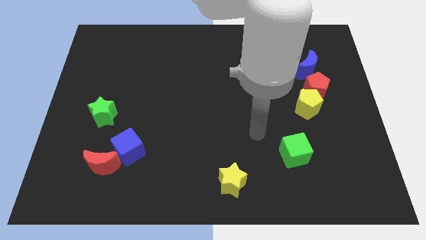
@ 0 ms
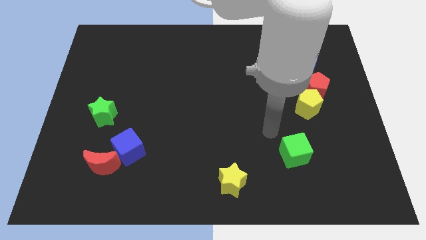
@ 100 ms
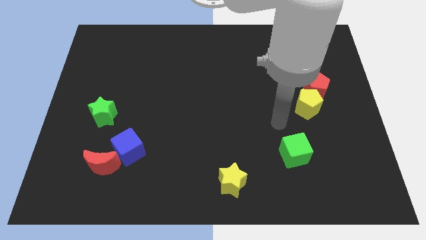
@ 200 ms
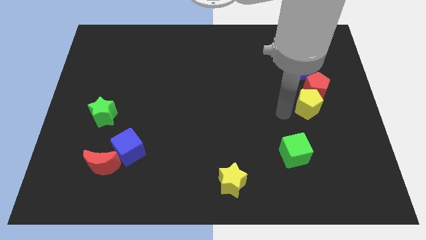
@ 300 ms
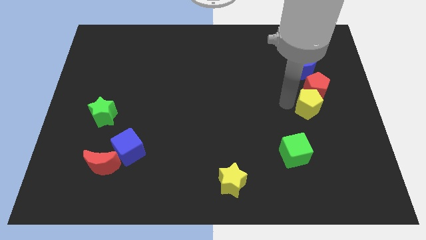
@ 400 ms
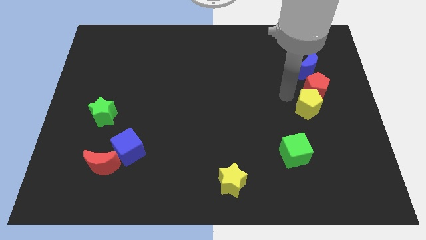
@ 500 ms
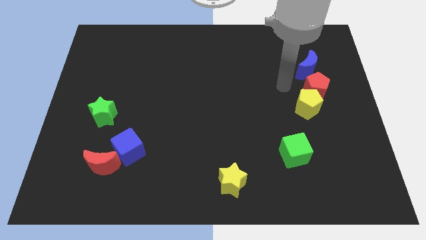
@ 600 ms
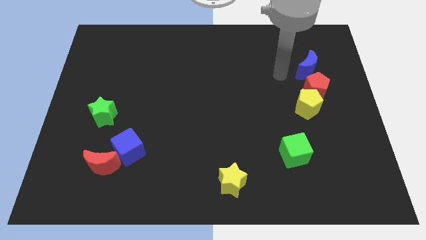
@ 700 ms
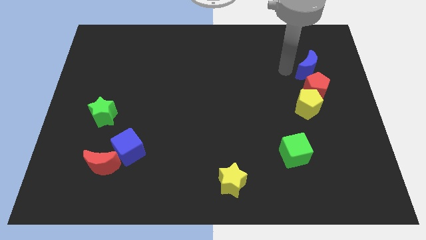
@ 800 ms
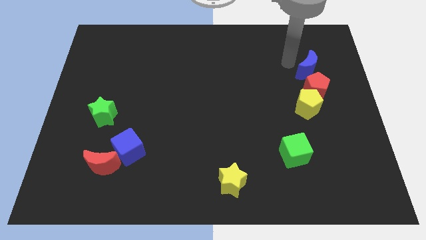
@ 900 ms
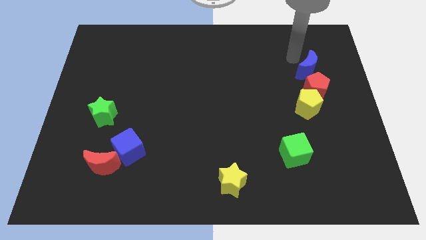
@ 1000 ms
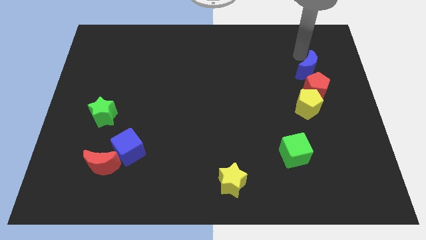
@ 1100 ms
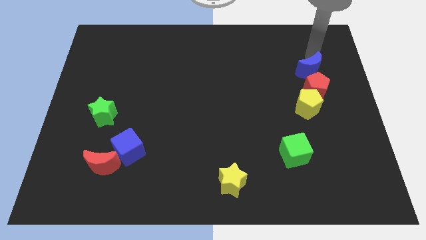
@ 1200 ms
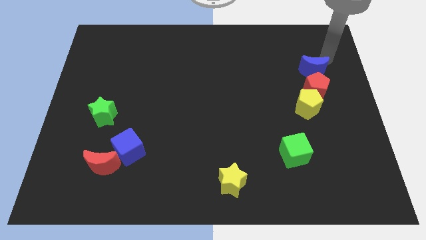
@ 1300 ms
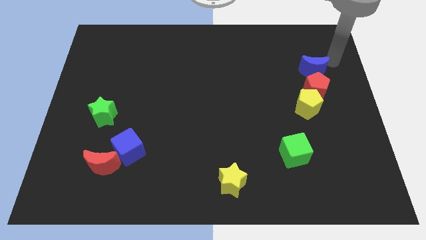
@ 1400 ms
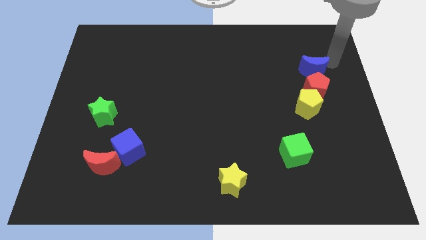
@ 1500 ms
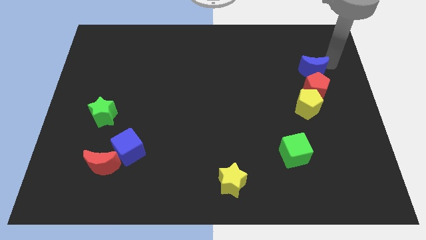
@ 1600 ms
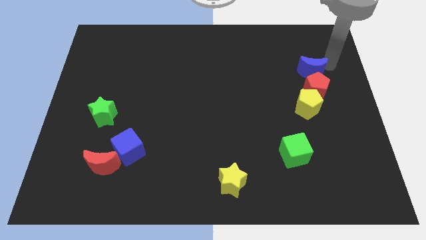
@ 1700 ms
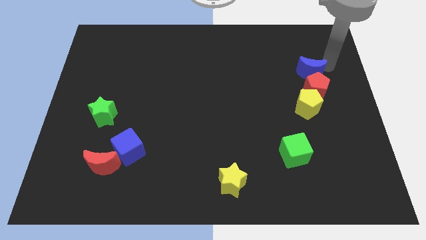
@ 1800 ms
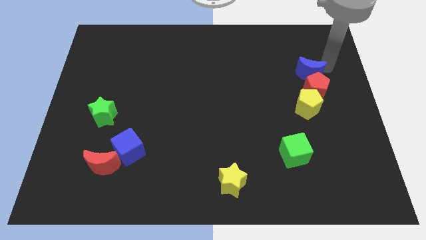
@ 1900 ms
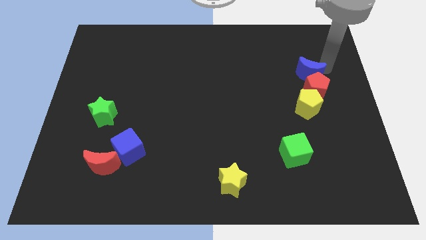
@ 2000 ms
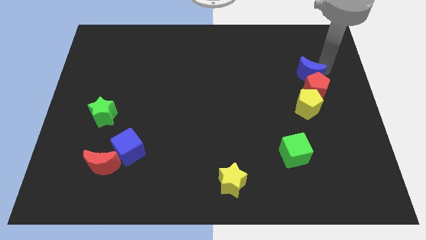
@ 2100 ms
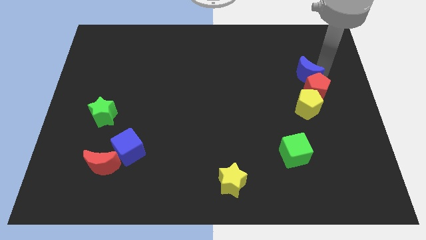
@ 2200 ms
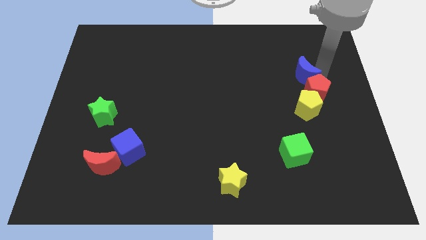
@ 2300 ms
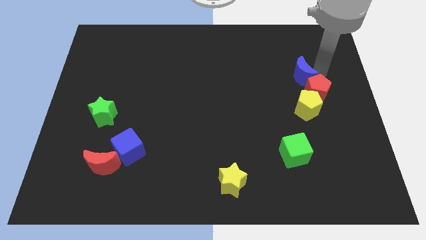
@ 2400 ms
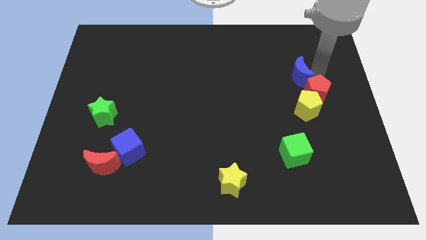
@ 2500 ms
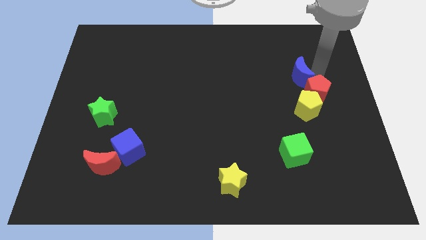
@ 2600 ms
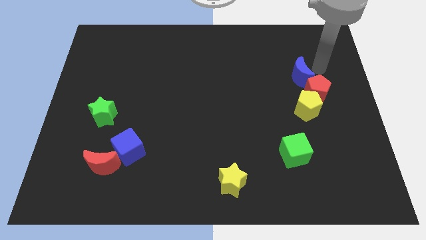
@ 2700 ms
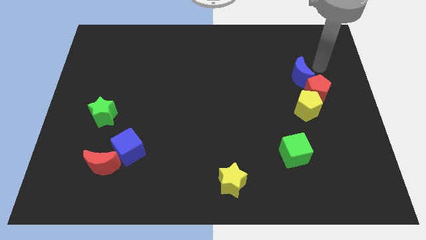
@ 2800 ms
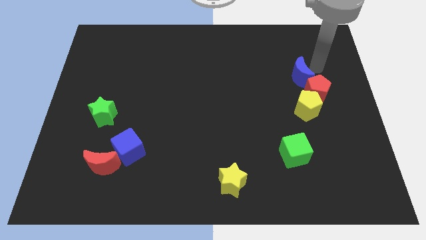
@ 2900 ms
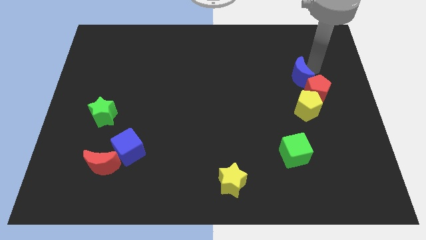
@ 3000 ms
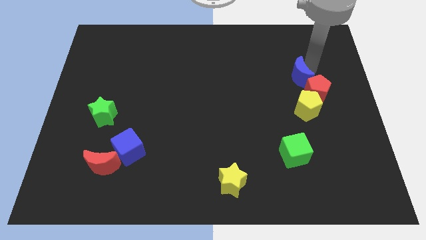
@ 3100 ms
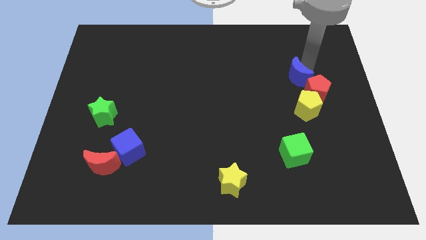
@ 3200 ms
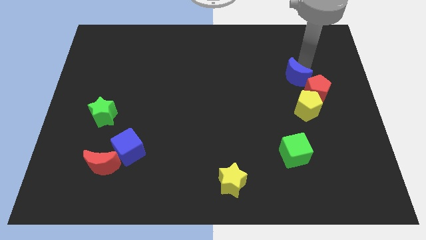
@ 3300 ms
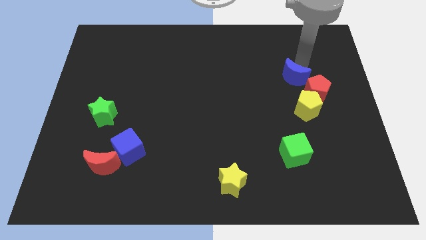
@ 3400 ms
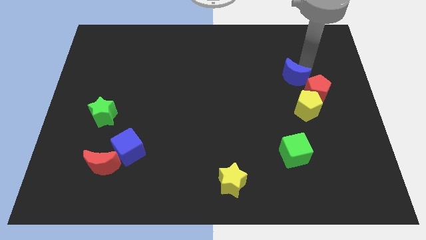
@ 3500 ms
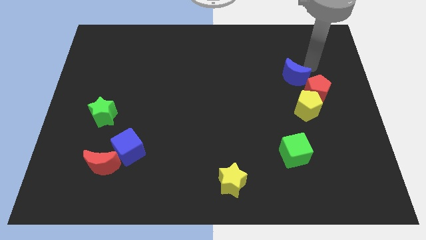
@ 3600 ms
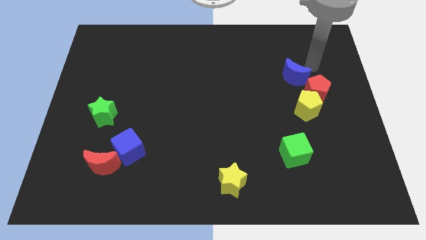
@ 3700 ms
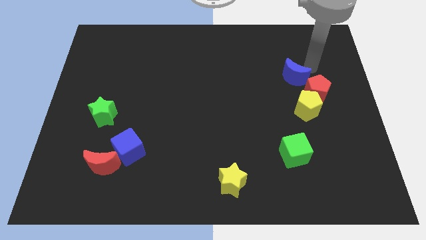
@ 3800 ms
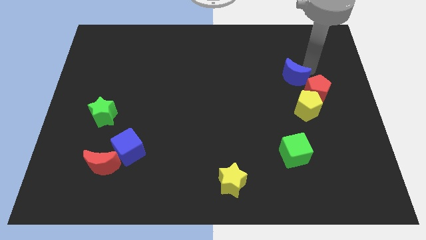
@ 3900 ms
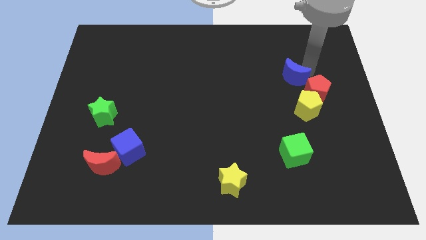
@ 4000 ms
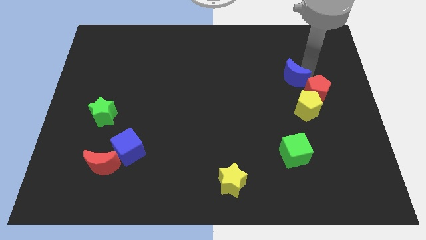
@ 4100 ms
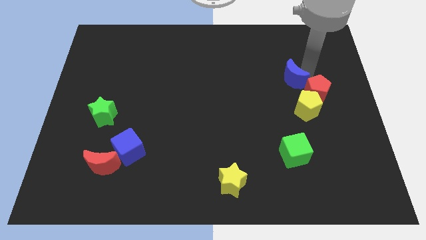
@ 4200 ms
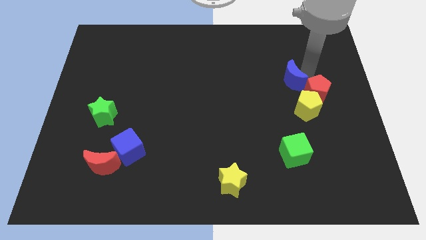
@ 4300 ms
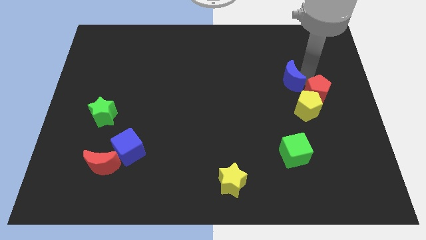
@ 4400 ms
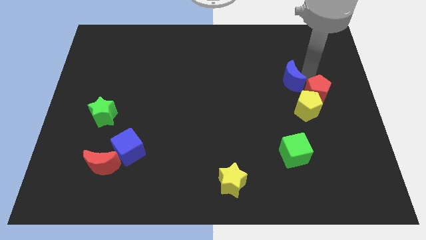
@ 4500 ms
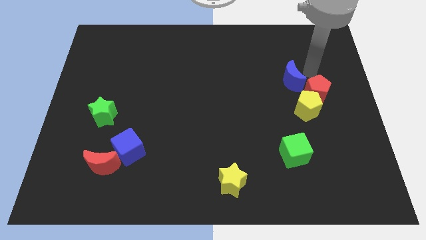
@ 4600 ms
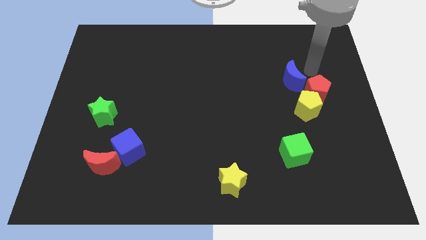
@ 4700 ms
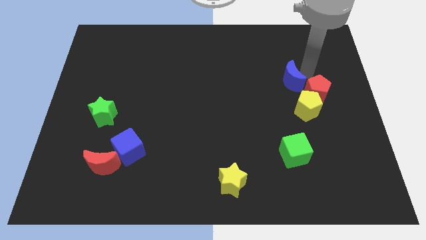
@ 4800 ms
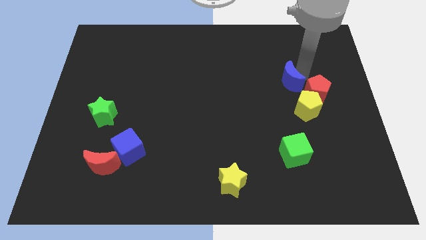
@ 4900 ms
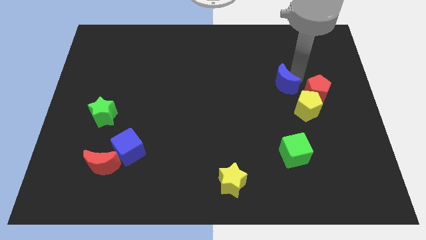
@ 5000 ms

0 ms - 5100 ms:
slightly move the blue moon down and to the left

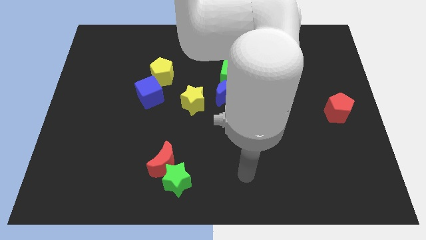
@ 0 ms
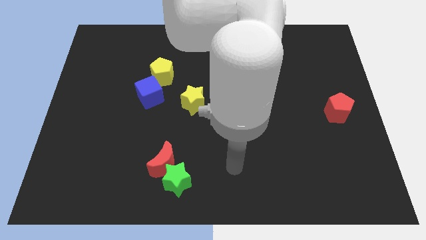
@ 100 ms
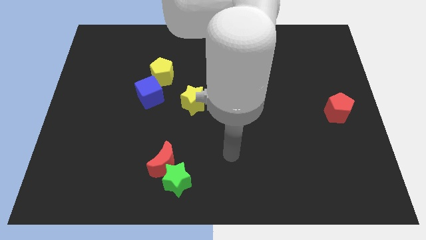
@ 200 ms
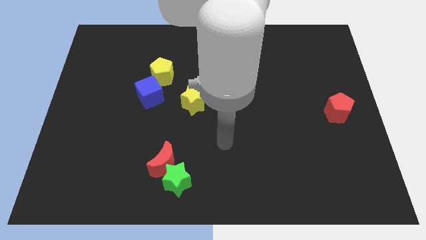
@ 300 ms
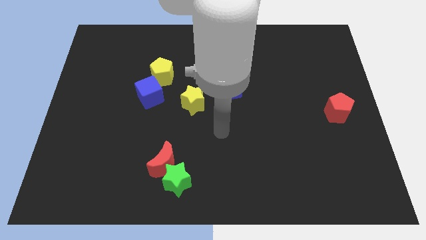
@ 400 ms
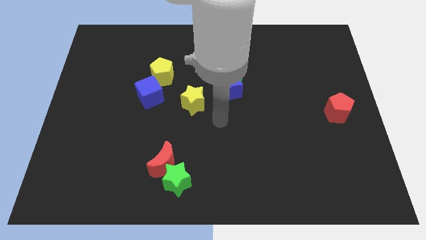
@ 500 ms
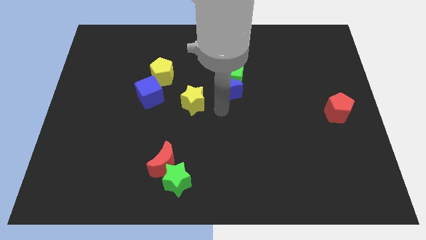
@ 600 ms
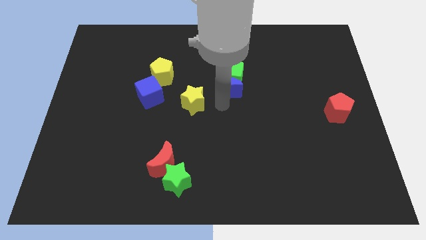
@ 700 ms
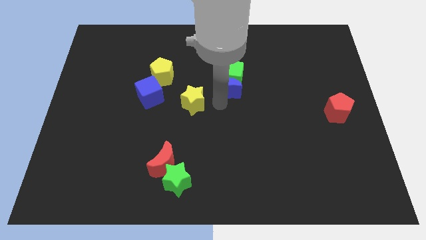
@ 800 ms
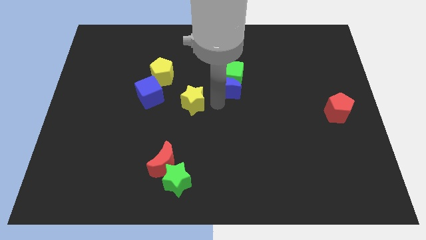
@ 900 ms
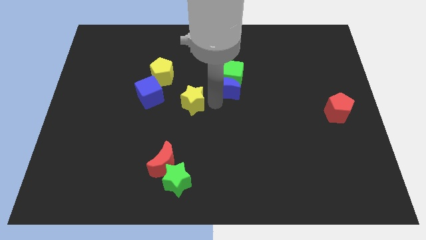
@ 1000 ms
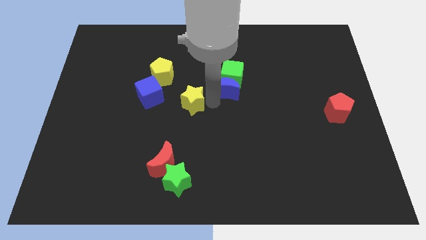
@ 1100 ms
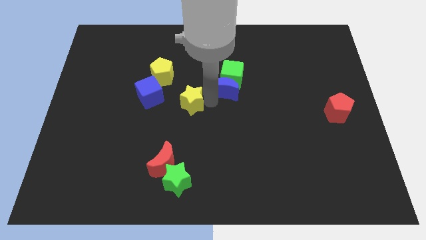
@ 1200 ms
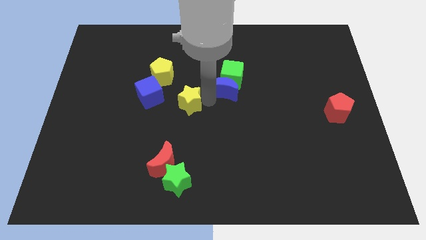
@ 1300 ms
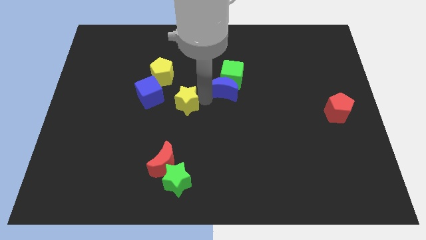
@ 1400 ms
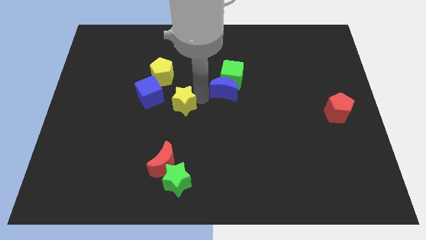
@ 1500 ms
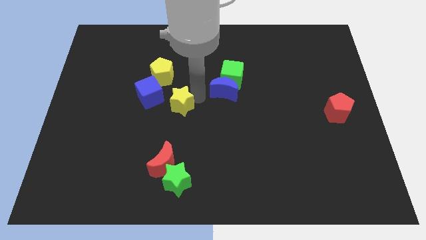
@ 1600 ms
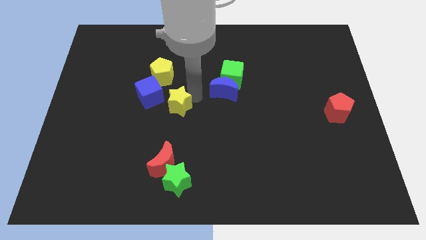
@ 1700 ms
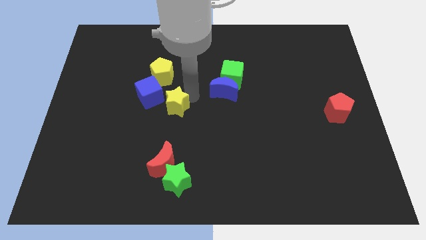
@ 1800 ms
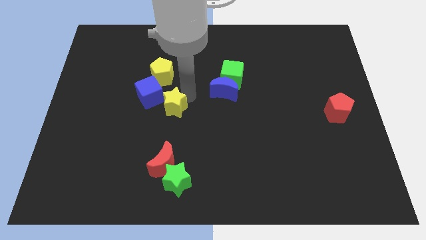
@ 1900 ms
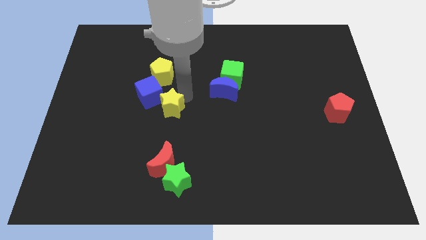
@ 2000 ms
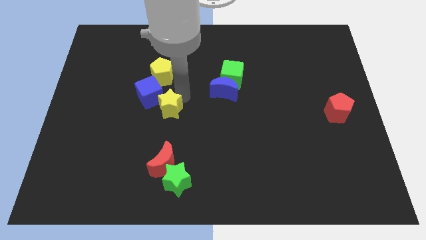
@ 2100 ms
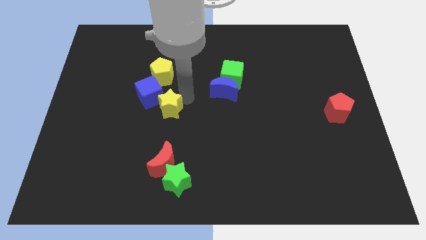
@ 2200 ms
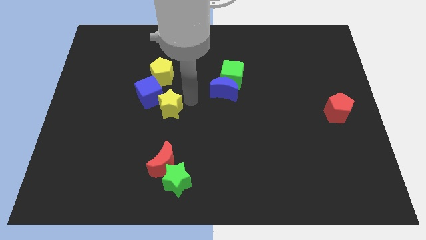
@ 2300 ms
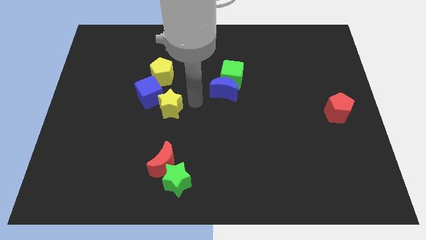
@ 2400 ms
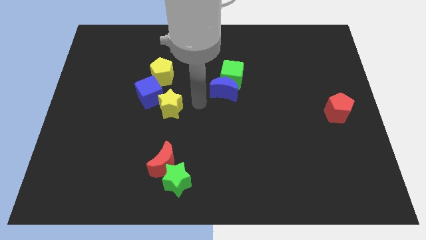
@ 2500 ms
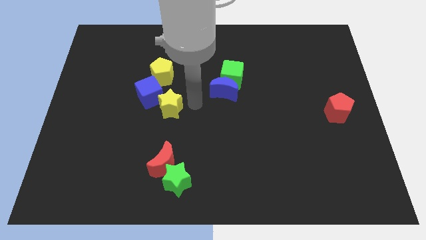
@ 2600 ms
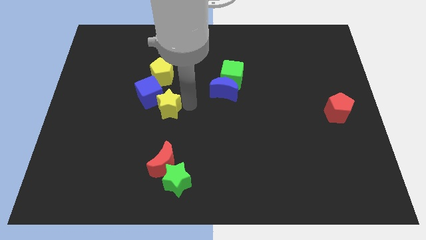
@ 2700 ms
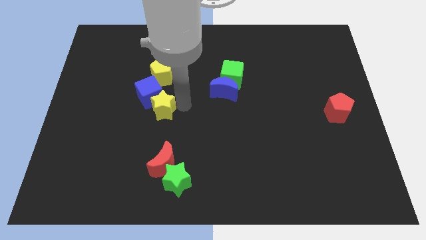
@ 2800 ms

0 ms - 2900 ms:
slightly slide the yellow star to the left
